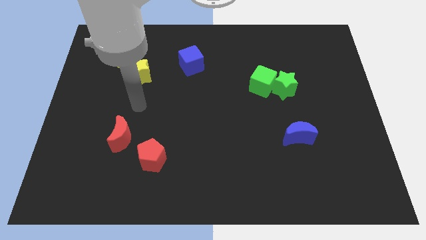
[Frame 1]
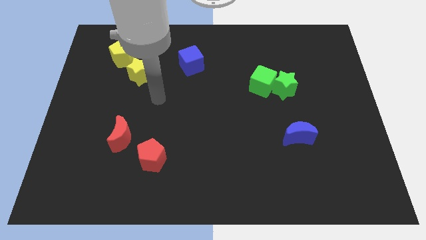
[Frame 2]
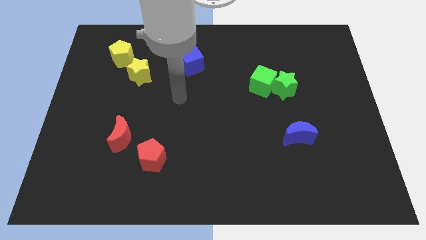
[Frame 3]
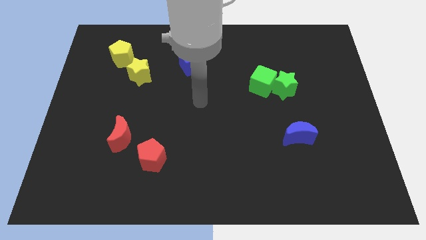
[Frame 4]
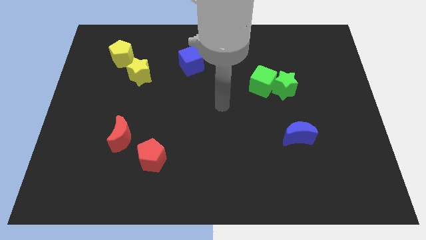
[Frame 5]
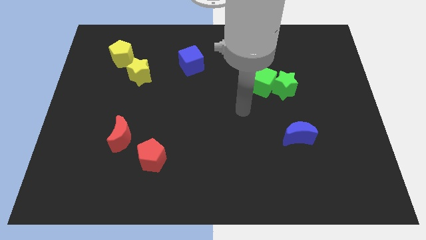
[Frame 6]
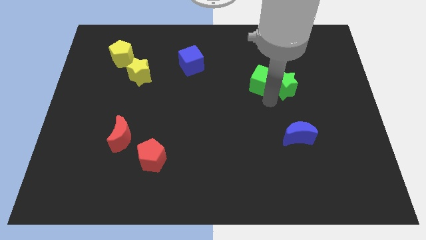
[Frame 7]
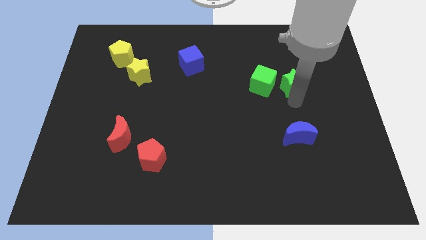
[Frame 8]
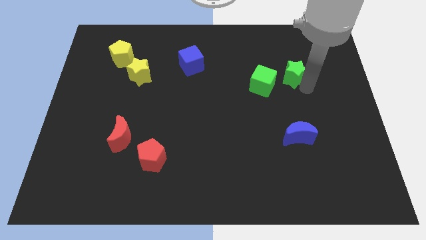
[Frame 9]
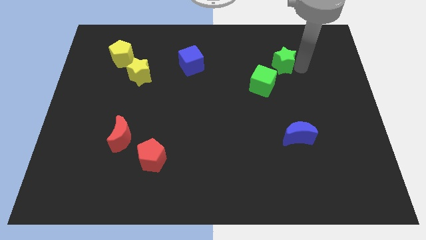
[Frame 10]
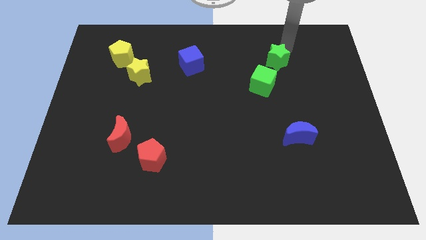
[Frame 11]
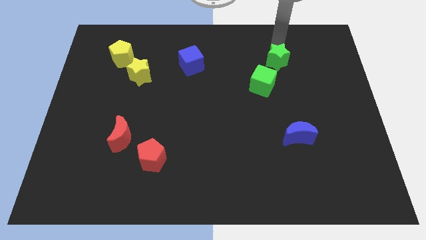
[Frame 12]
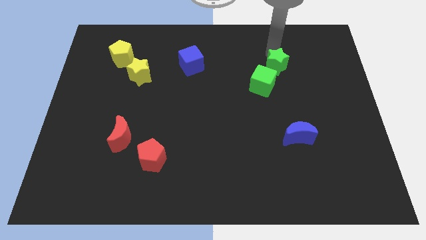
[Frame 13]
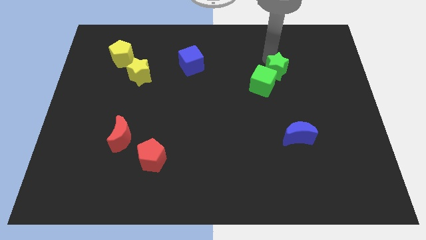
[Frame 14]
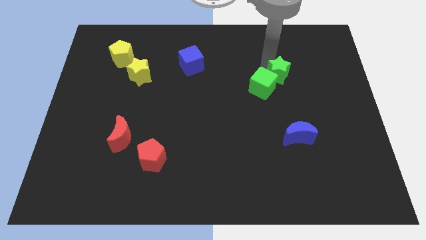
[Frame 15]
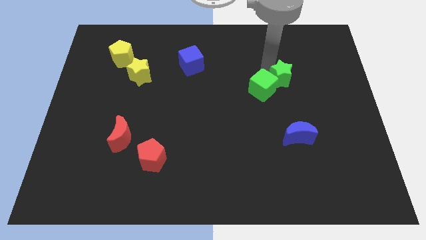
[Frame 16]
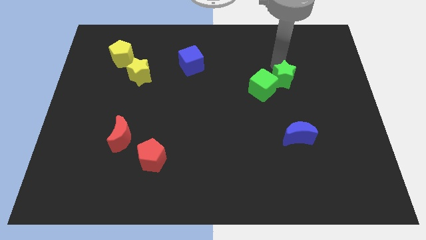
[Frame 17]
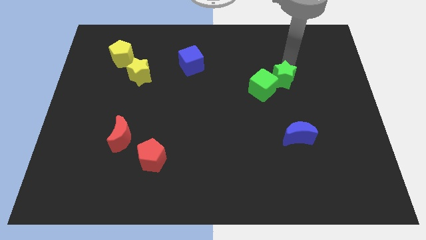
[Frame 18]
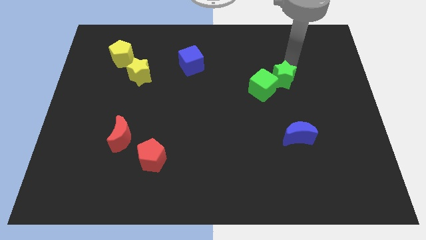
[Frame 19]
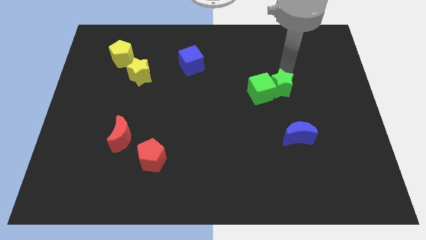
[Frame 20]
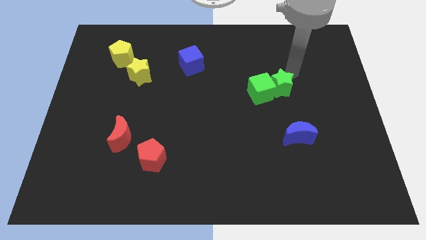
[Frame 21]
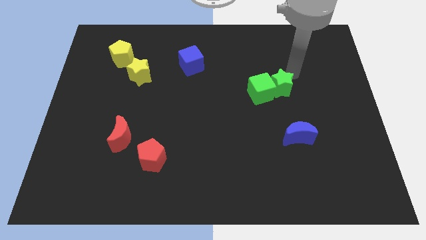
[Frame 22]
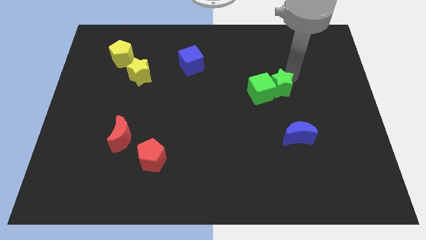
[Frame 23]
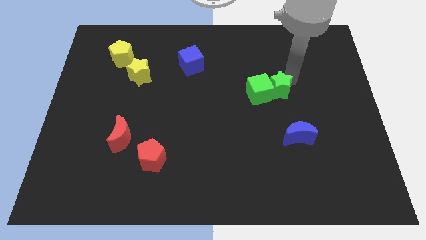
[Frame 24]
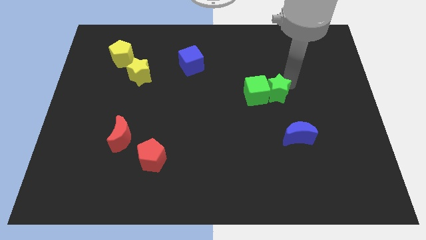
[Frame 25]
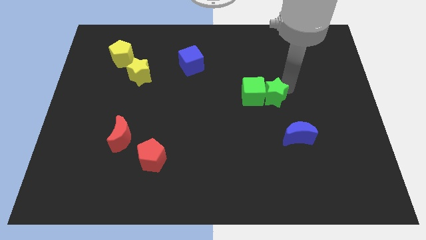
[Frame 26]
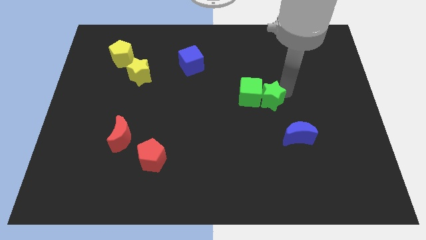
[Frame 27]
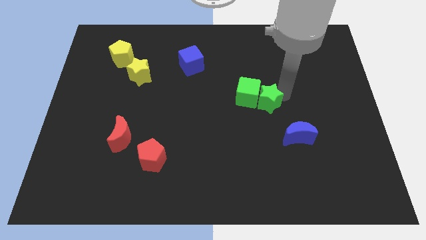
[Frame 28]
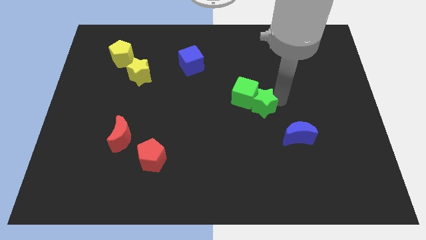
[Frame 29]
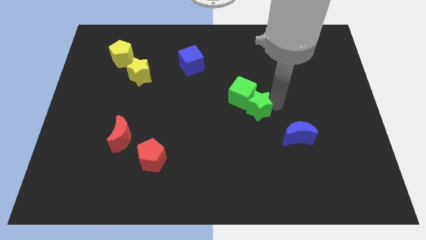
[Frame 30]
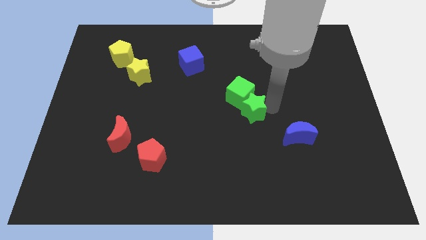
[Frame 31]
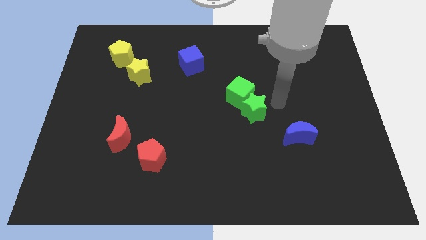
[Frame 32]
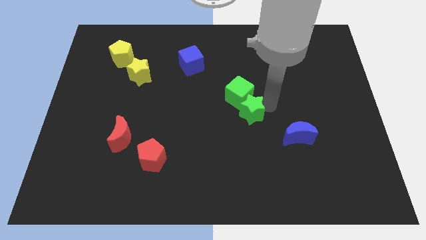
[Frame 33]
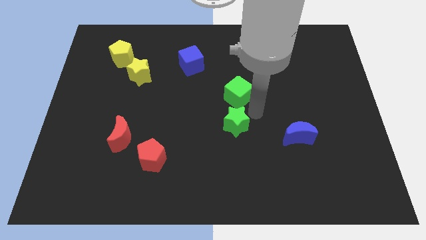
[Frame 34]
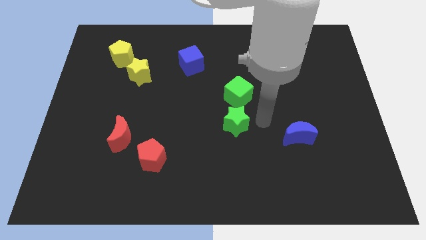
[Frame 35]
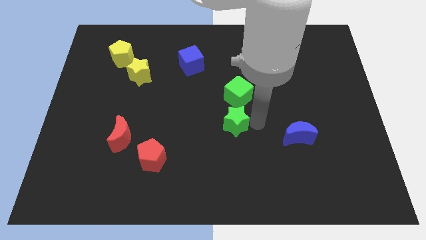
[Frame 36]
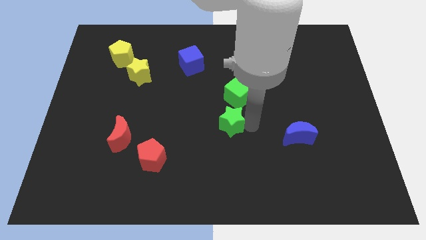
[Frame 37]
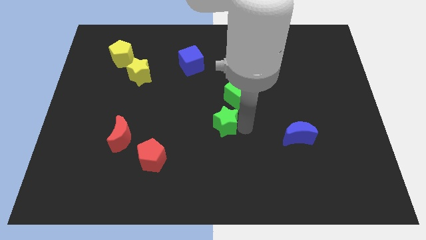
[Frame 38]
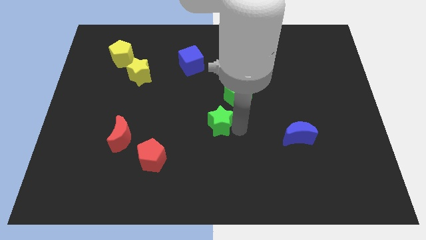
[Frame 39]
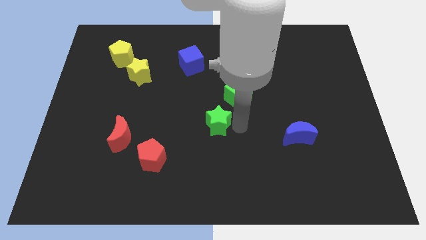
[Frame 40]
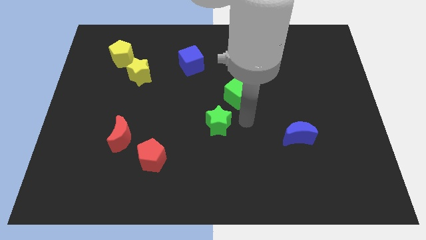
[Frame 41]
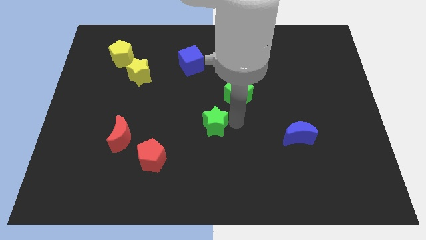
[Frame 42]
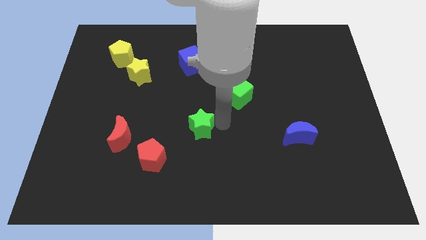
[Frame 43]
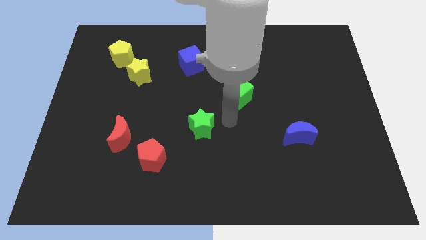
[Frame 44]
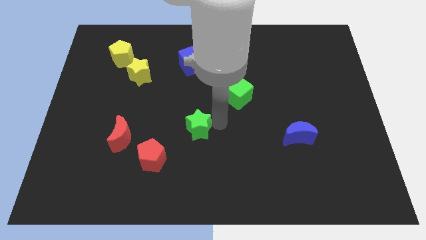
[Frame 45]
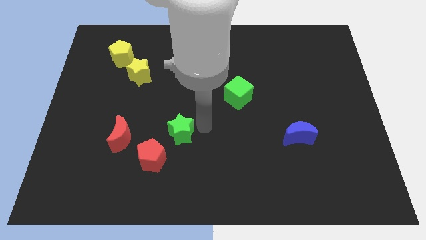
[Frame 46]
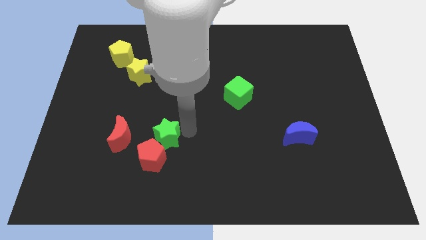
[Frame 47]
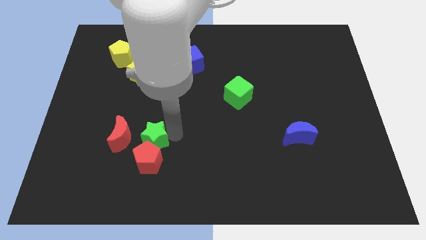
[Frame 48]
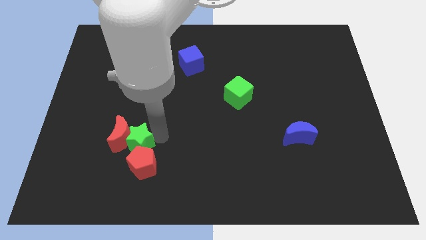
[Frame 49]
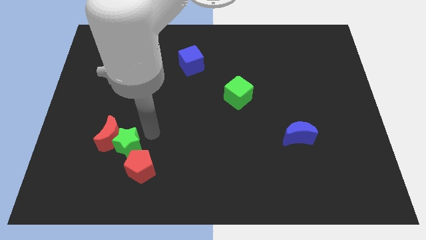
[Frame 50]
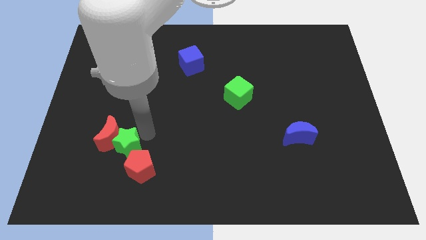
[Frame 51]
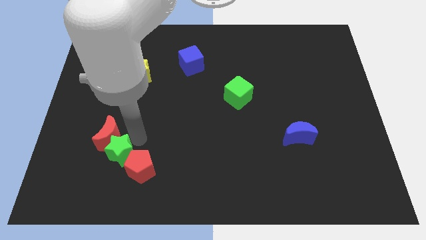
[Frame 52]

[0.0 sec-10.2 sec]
put the green star just left of the red pentagon

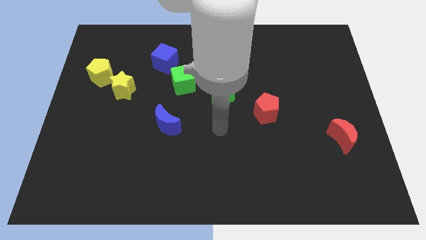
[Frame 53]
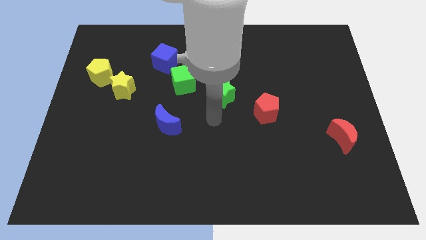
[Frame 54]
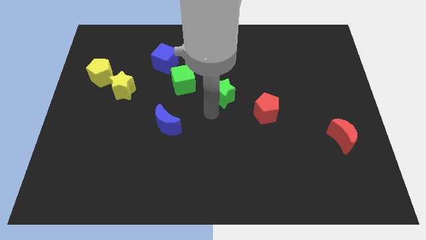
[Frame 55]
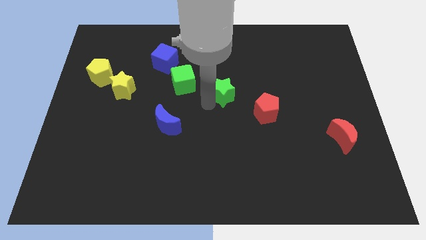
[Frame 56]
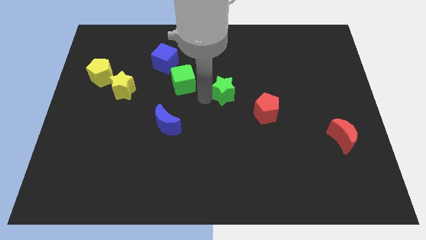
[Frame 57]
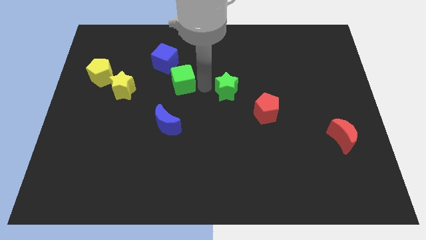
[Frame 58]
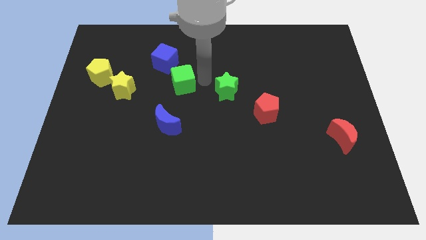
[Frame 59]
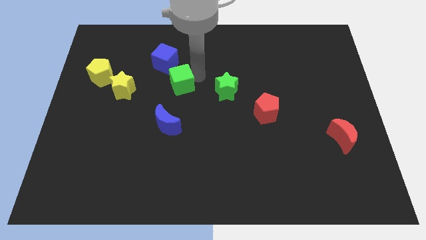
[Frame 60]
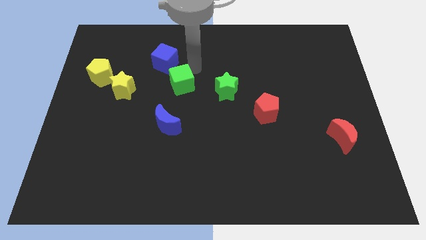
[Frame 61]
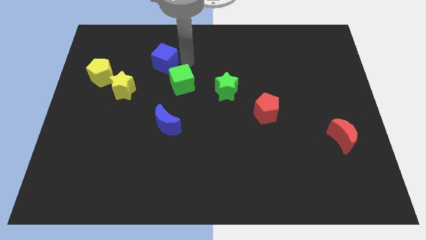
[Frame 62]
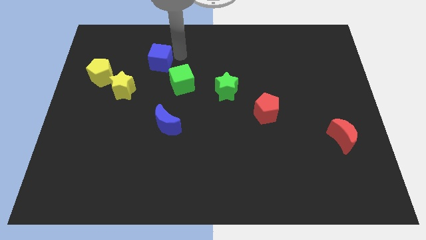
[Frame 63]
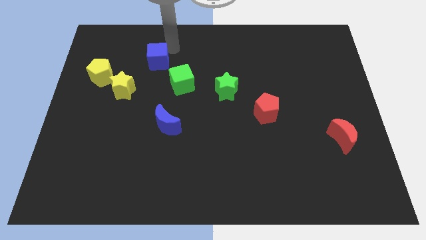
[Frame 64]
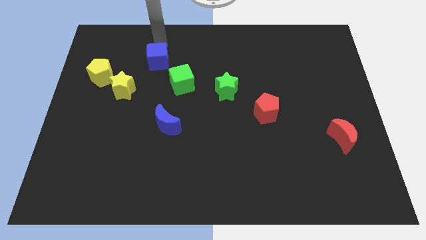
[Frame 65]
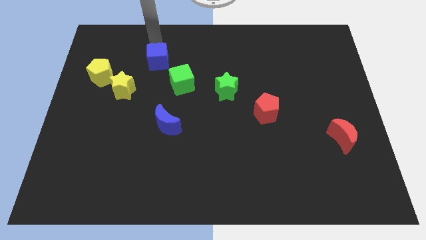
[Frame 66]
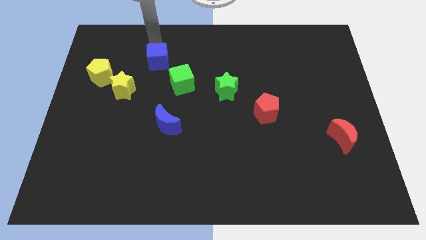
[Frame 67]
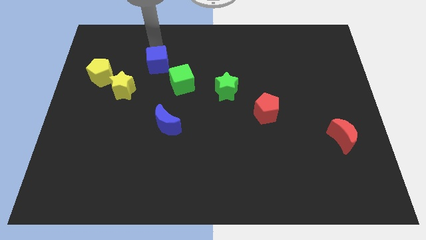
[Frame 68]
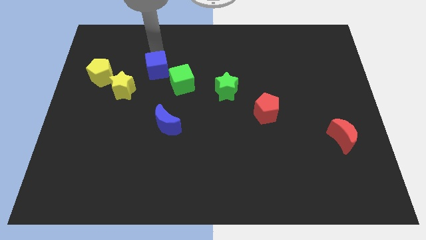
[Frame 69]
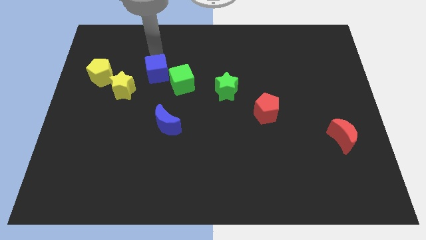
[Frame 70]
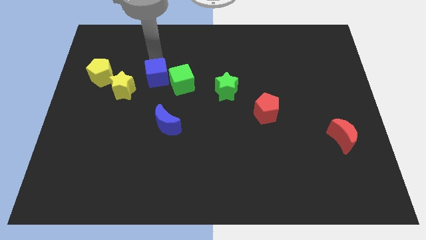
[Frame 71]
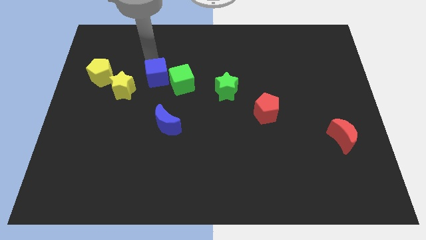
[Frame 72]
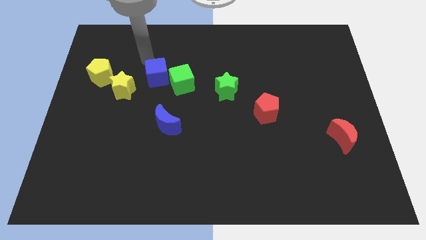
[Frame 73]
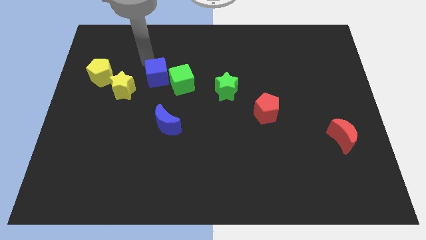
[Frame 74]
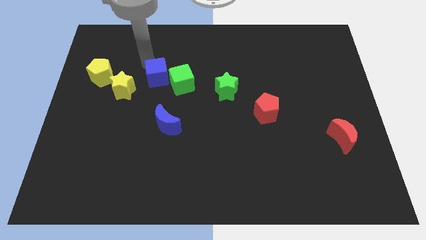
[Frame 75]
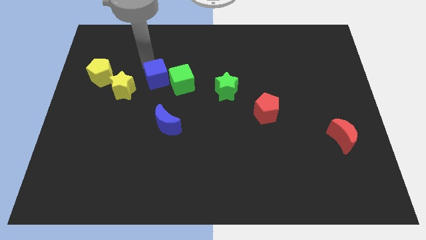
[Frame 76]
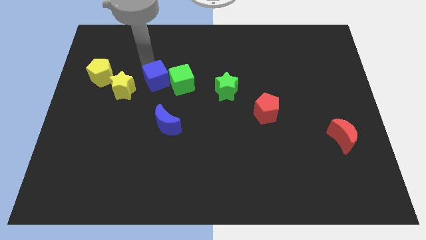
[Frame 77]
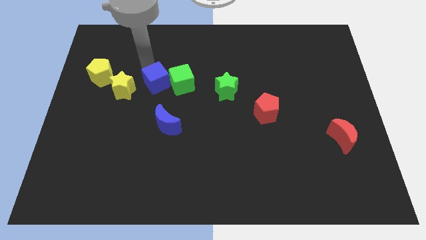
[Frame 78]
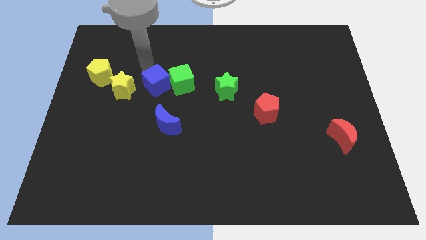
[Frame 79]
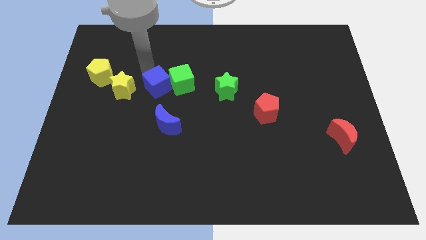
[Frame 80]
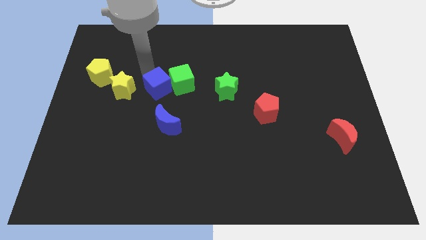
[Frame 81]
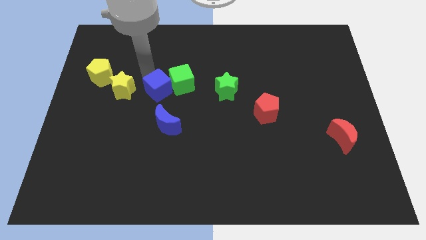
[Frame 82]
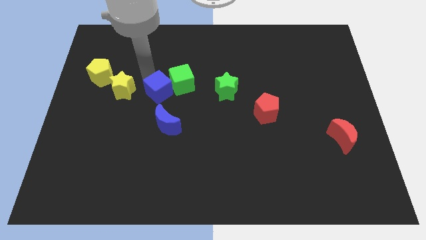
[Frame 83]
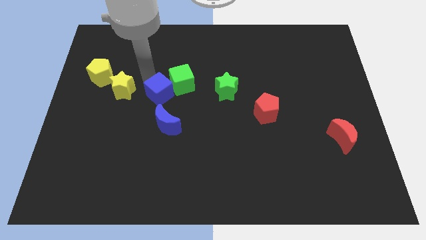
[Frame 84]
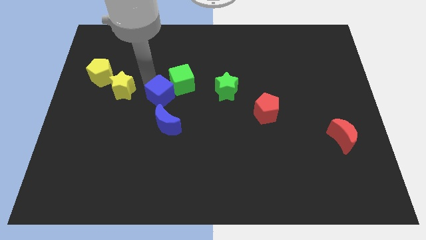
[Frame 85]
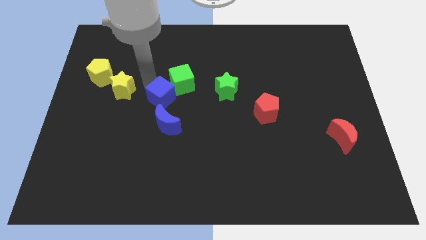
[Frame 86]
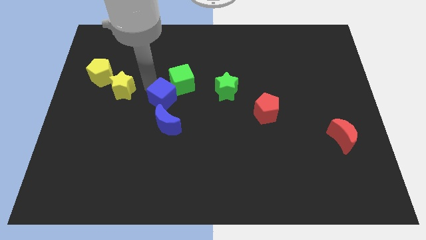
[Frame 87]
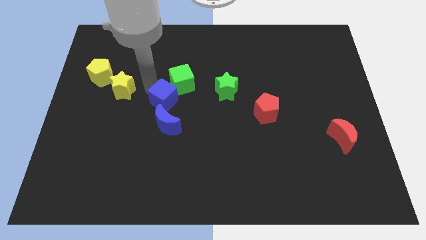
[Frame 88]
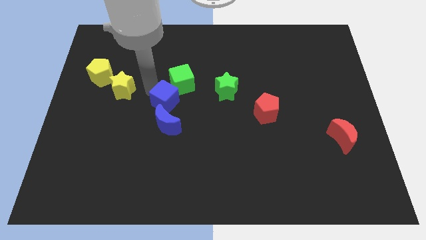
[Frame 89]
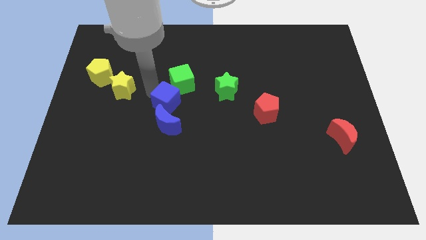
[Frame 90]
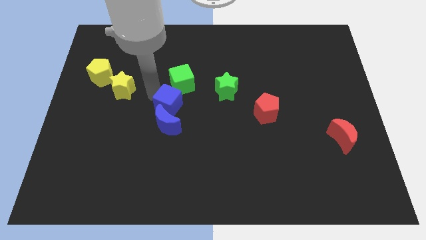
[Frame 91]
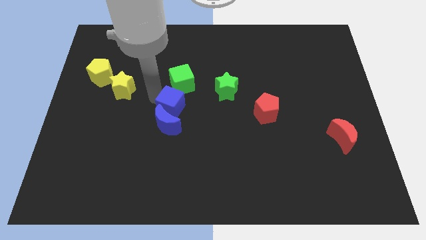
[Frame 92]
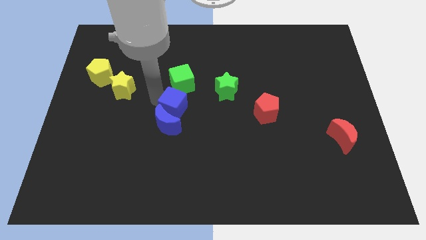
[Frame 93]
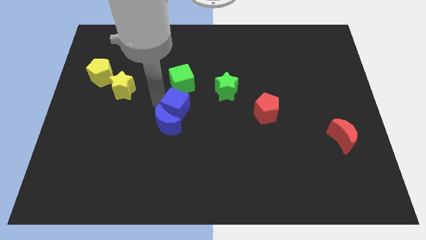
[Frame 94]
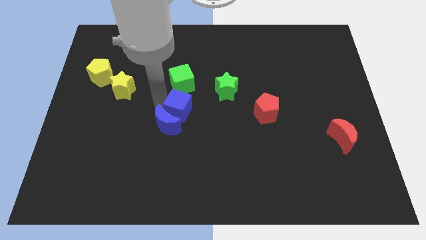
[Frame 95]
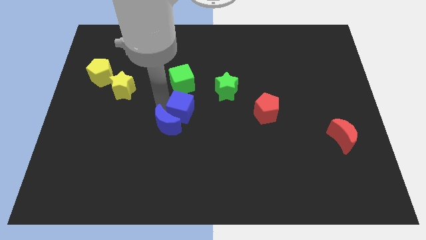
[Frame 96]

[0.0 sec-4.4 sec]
move the blue cube diagonally down and to the left of the green star
